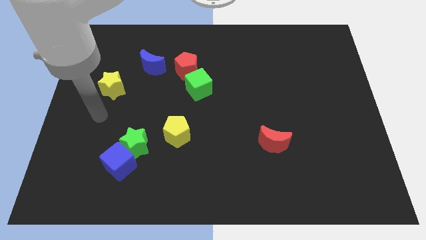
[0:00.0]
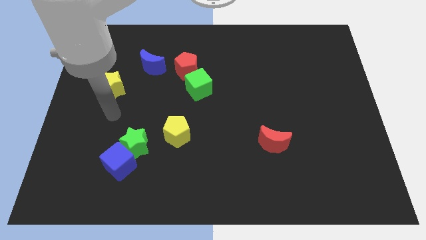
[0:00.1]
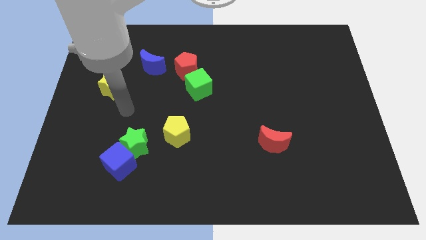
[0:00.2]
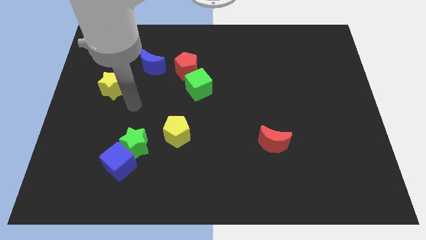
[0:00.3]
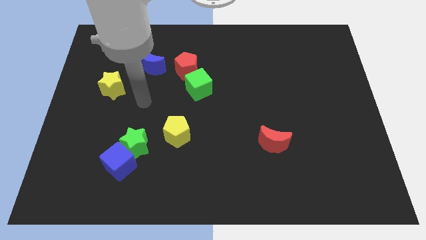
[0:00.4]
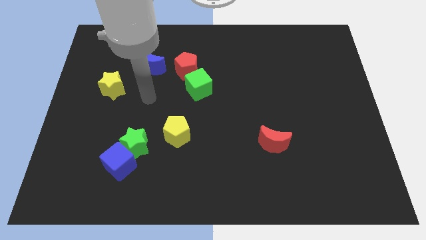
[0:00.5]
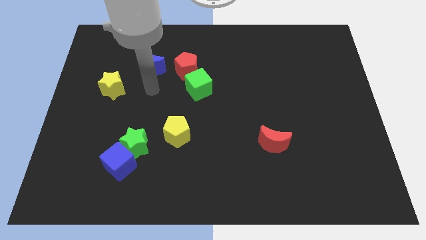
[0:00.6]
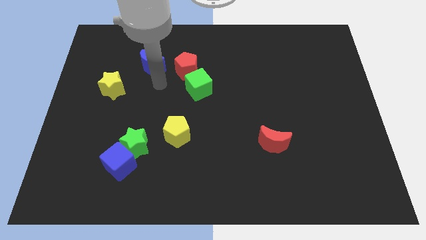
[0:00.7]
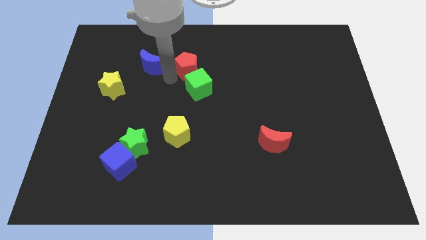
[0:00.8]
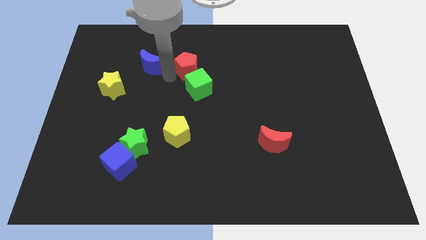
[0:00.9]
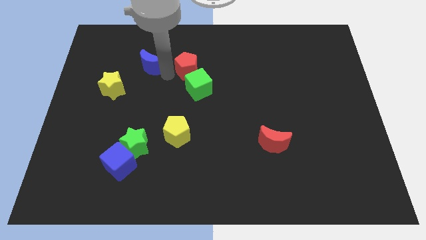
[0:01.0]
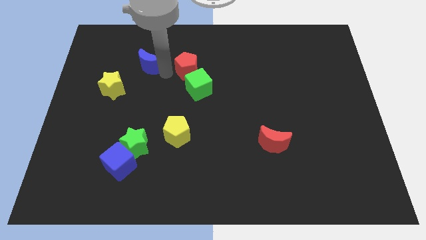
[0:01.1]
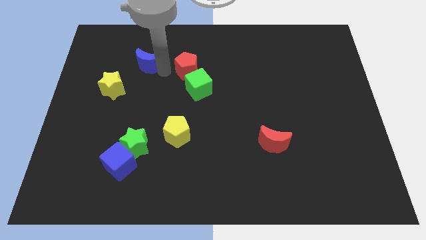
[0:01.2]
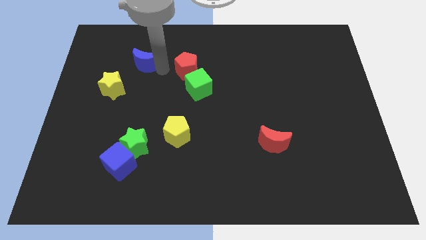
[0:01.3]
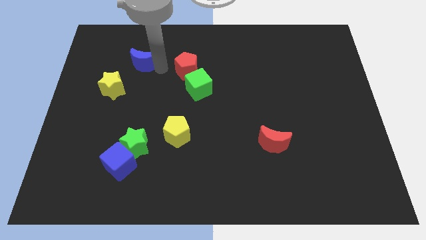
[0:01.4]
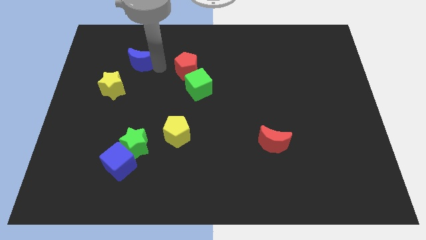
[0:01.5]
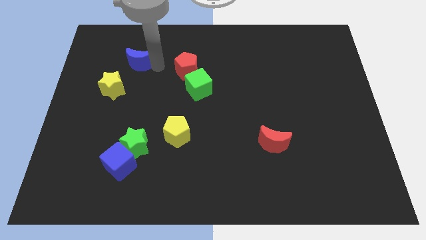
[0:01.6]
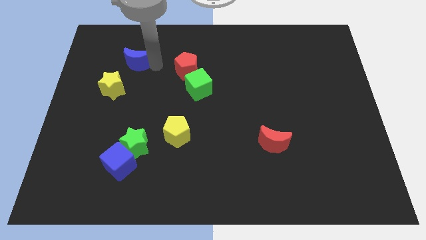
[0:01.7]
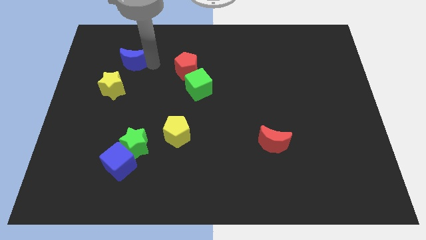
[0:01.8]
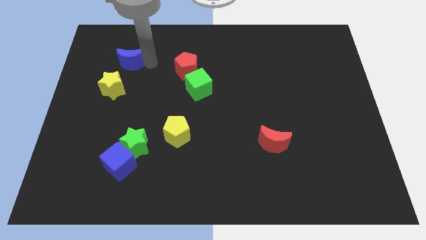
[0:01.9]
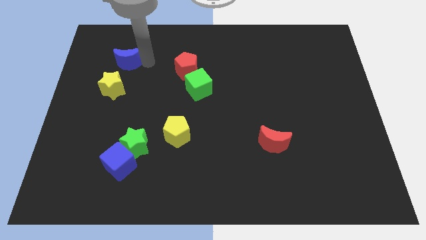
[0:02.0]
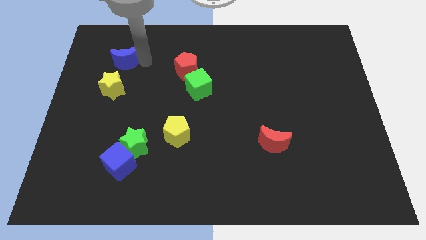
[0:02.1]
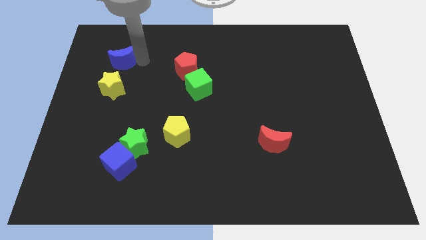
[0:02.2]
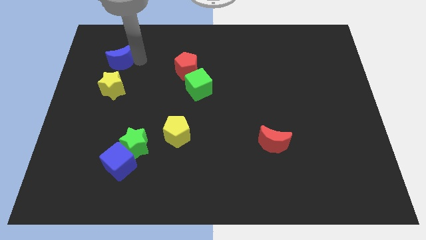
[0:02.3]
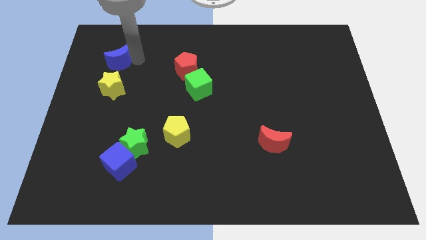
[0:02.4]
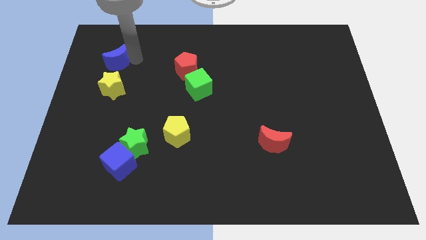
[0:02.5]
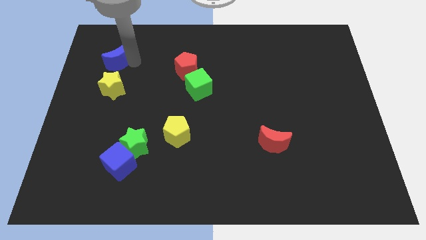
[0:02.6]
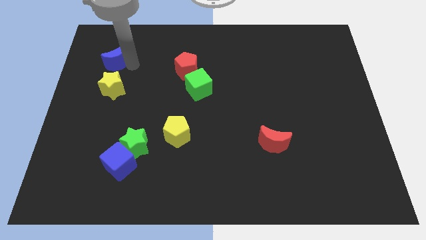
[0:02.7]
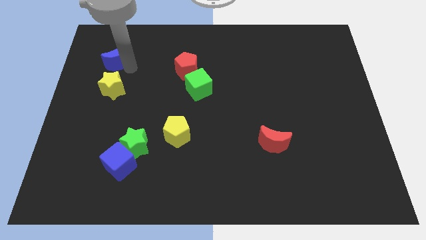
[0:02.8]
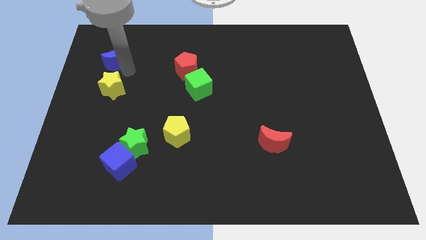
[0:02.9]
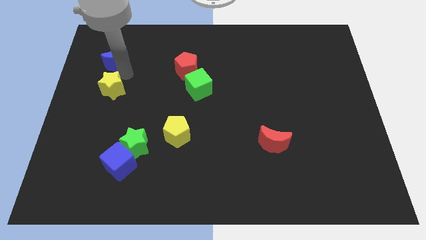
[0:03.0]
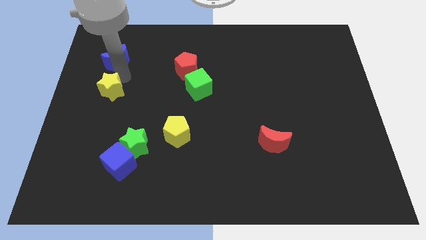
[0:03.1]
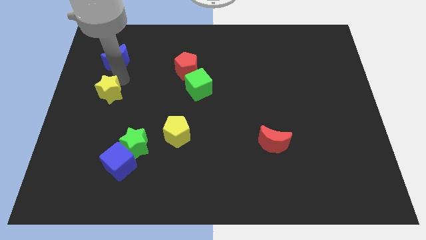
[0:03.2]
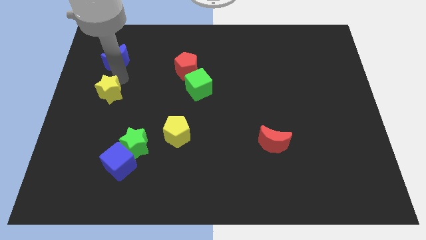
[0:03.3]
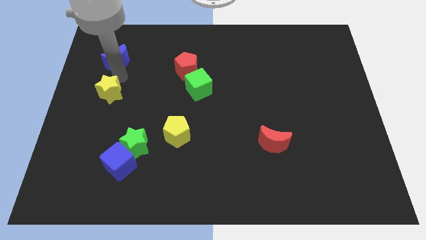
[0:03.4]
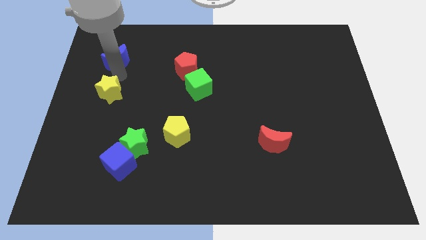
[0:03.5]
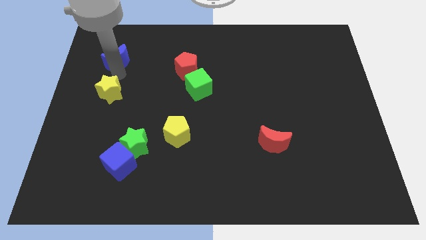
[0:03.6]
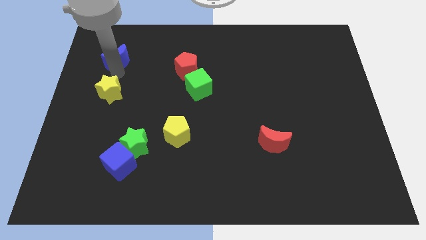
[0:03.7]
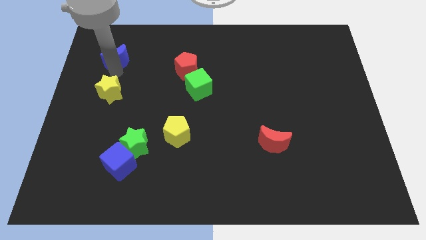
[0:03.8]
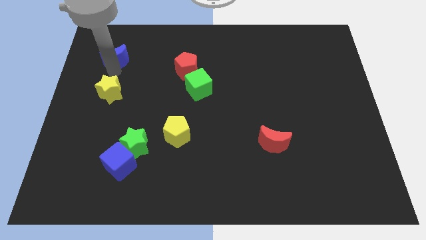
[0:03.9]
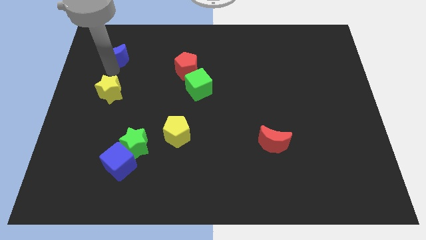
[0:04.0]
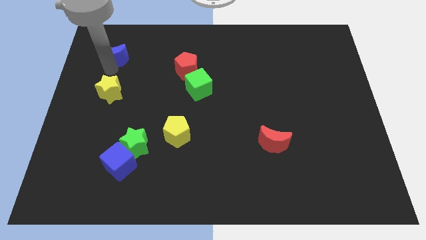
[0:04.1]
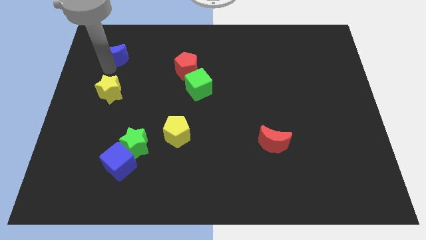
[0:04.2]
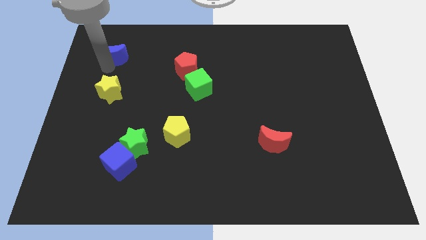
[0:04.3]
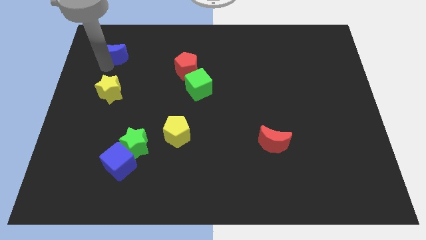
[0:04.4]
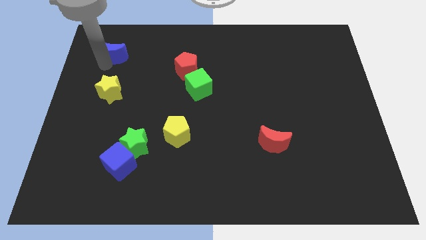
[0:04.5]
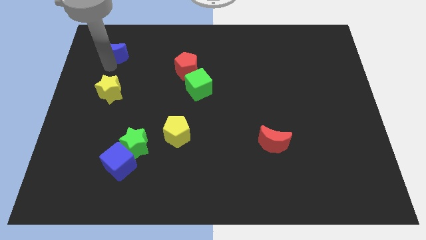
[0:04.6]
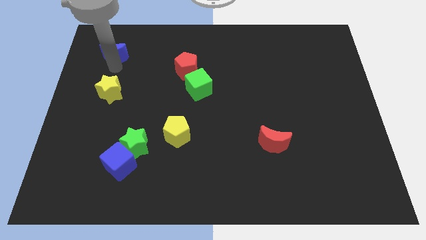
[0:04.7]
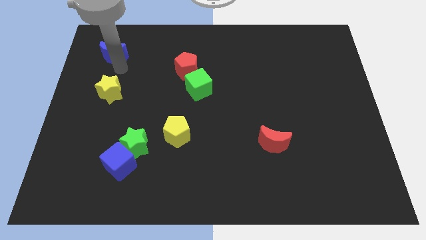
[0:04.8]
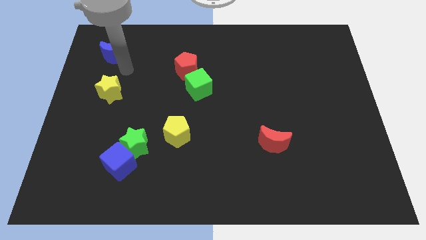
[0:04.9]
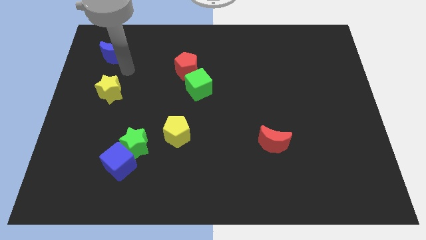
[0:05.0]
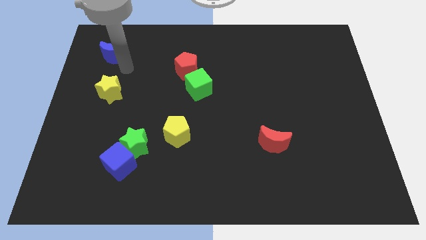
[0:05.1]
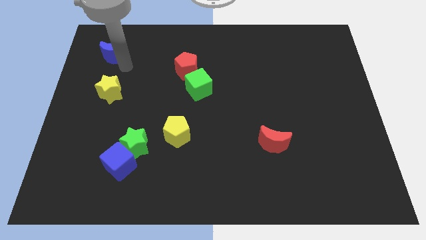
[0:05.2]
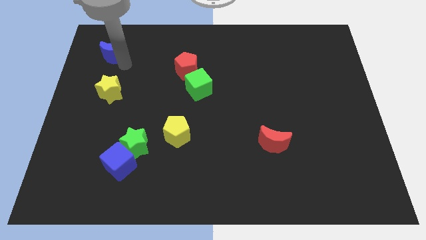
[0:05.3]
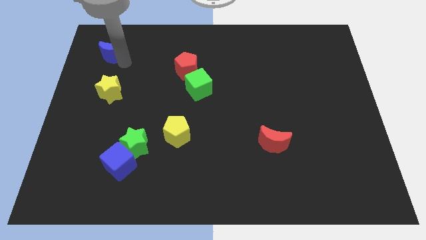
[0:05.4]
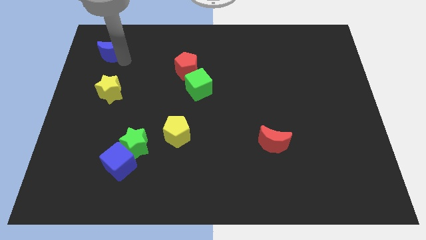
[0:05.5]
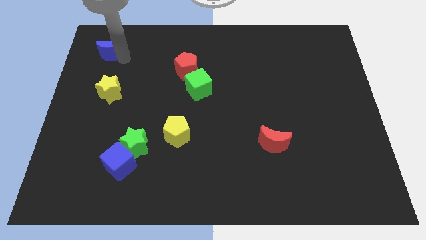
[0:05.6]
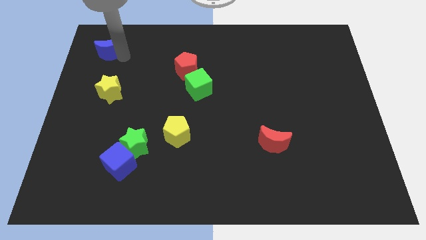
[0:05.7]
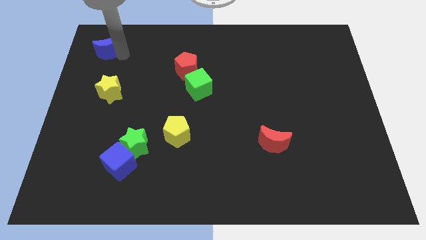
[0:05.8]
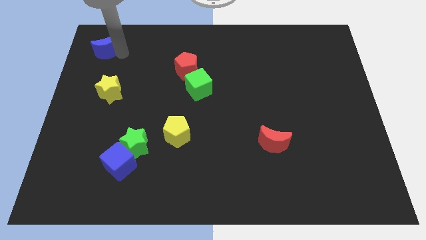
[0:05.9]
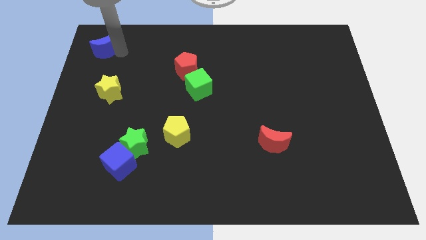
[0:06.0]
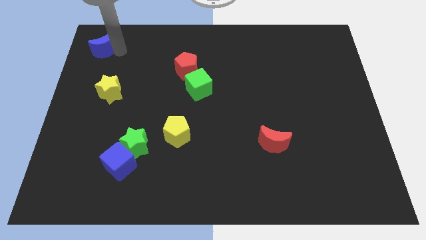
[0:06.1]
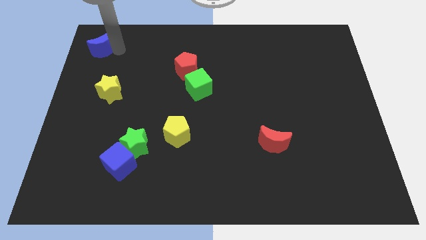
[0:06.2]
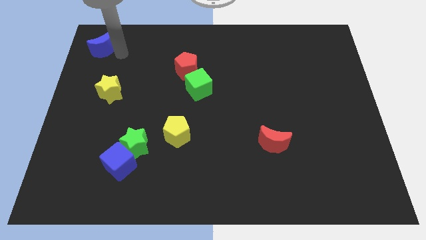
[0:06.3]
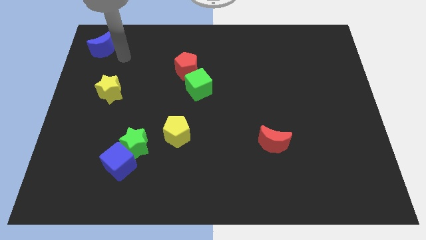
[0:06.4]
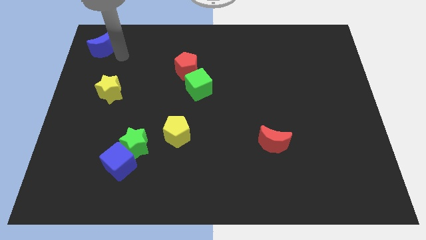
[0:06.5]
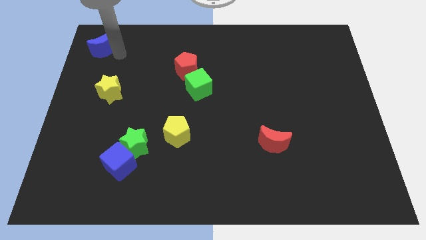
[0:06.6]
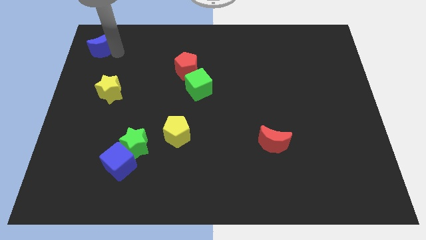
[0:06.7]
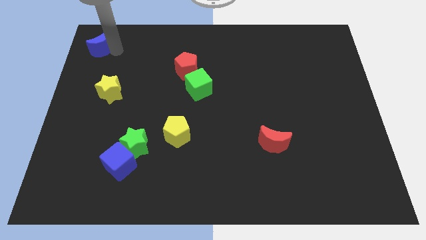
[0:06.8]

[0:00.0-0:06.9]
put the blue moon to the upper left corner
